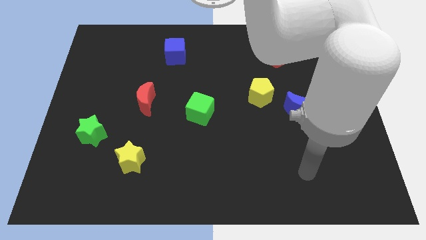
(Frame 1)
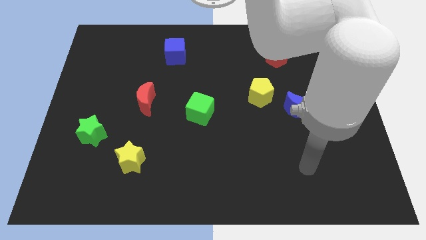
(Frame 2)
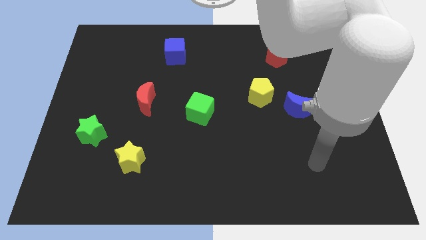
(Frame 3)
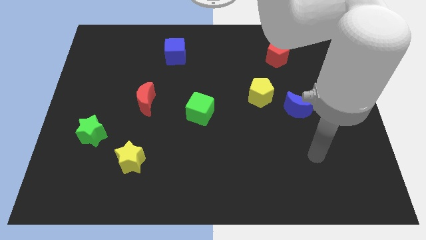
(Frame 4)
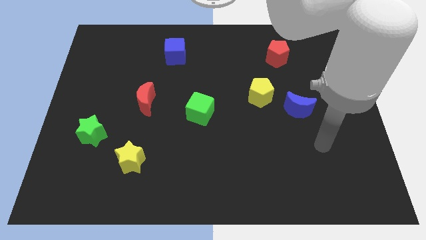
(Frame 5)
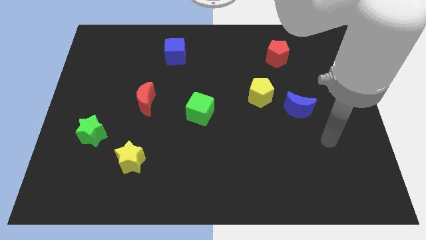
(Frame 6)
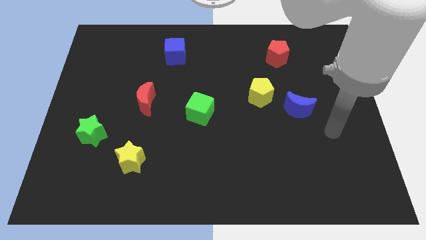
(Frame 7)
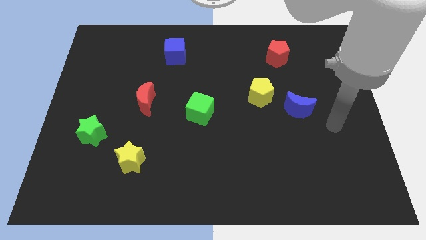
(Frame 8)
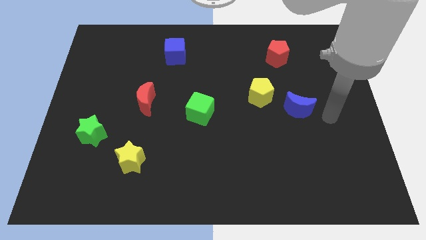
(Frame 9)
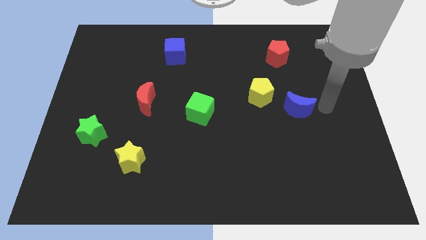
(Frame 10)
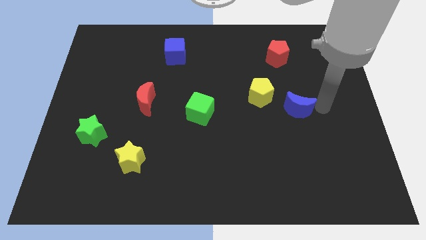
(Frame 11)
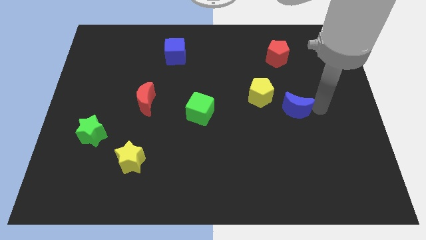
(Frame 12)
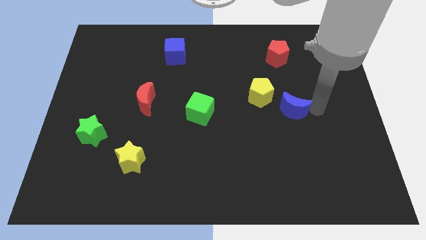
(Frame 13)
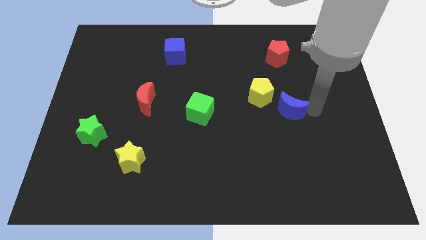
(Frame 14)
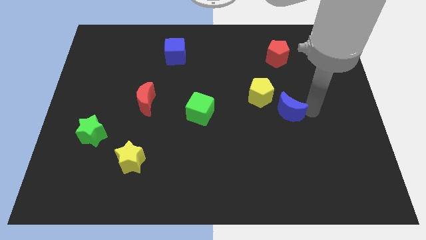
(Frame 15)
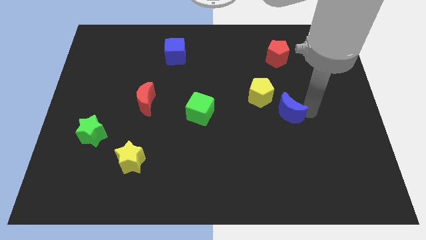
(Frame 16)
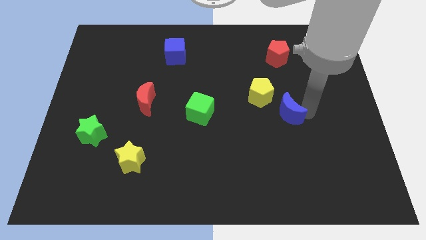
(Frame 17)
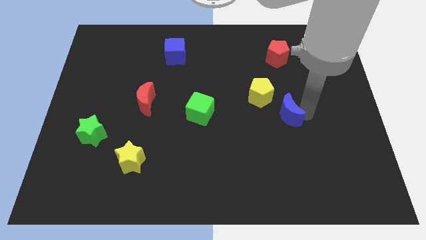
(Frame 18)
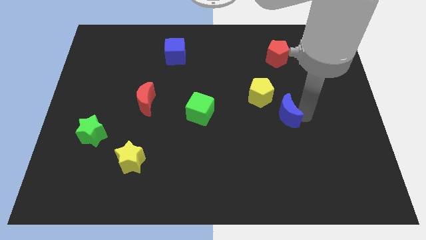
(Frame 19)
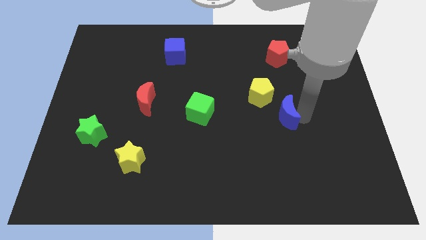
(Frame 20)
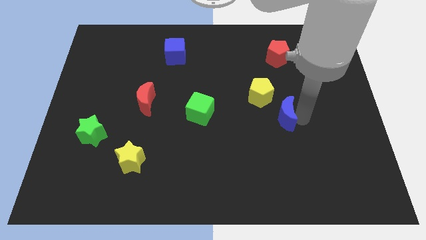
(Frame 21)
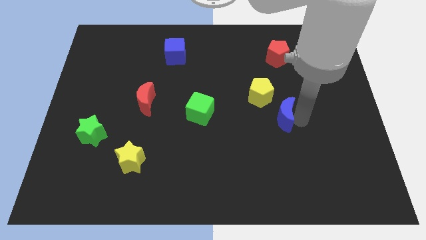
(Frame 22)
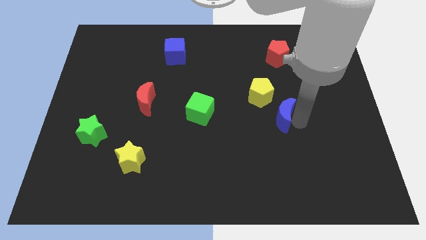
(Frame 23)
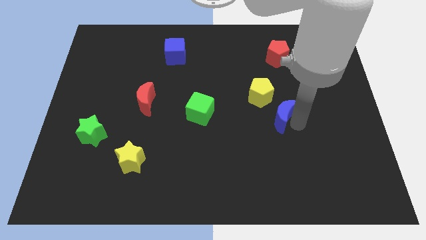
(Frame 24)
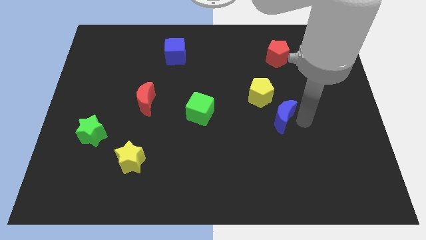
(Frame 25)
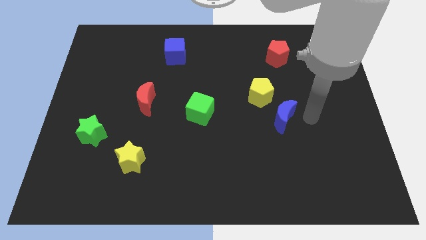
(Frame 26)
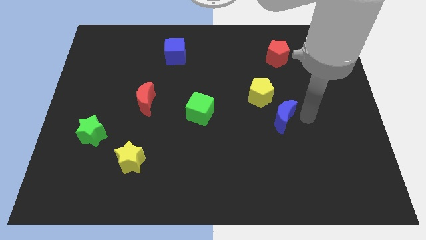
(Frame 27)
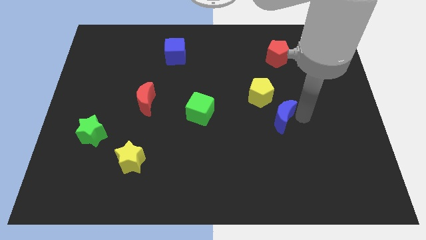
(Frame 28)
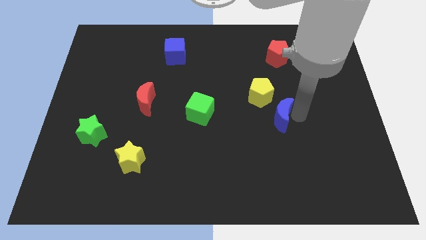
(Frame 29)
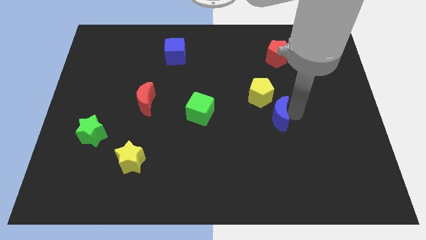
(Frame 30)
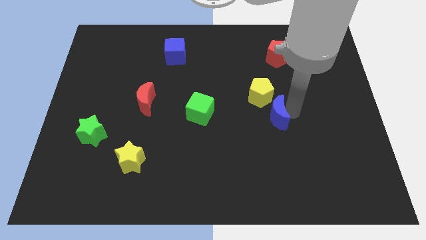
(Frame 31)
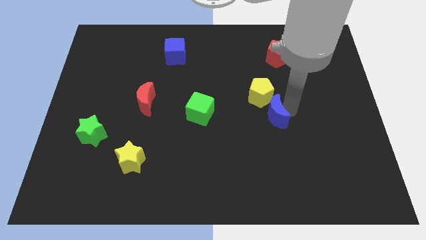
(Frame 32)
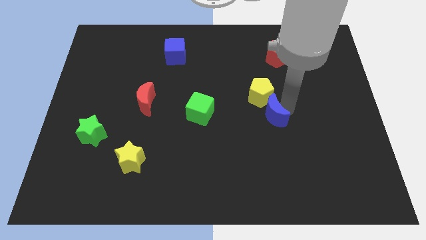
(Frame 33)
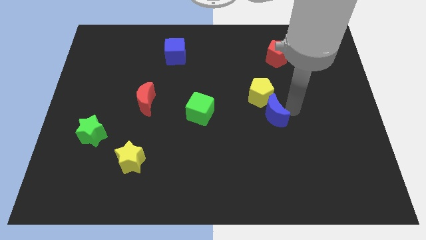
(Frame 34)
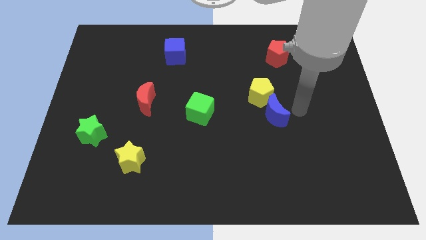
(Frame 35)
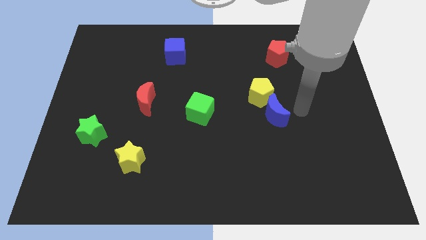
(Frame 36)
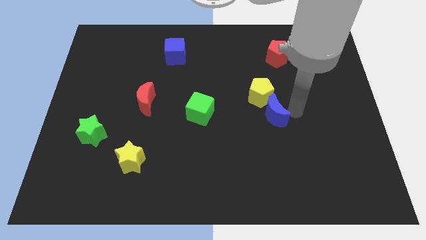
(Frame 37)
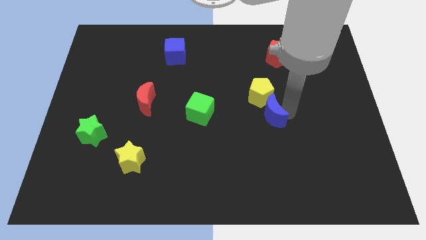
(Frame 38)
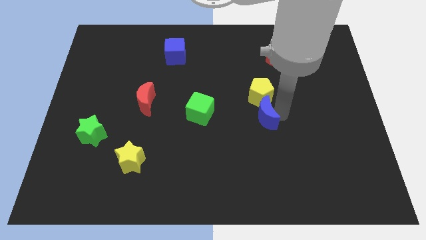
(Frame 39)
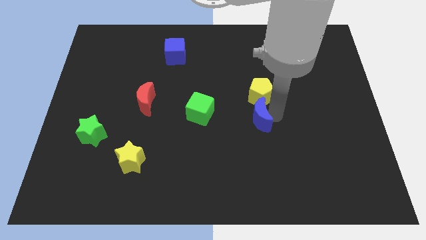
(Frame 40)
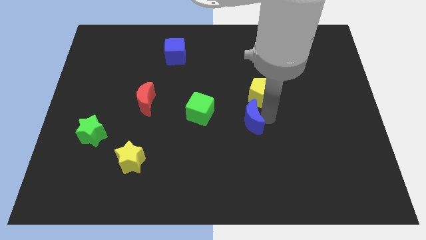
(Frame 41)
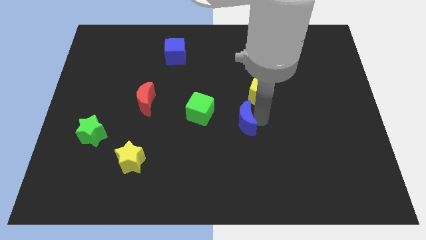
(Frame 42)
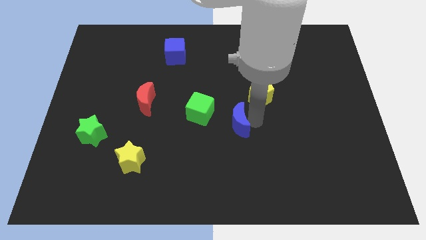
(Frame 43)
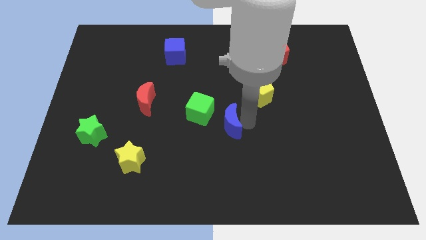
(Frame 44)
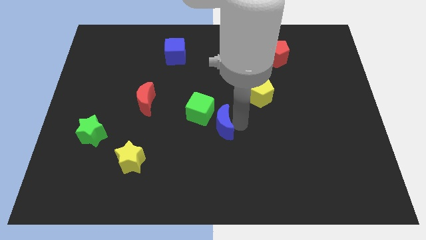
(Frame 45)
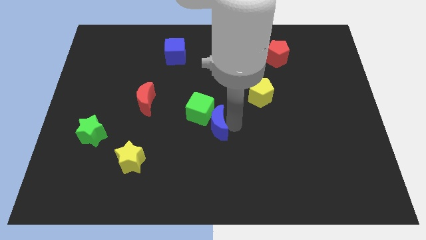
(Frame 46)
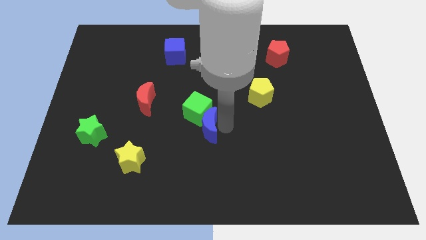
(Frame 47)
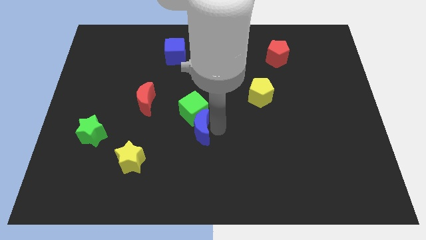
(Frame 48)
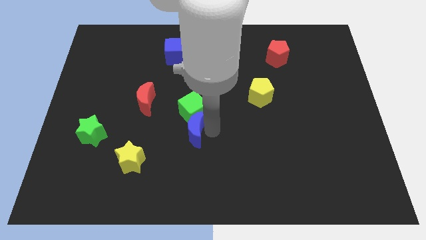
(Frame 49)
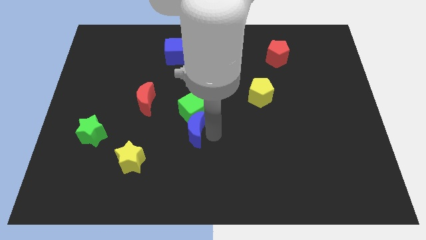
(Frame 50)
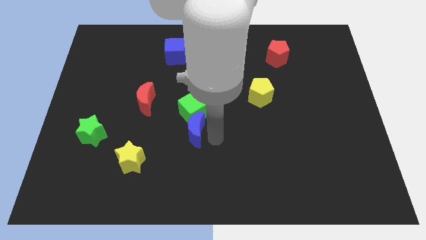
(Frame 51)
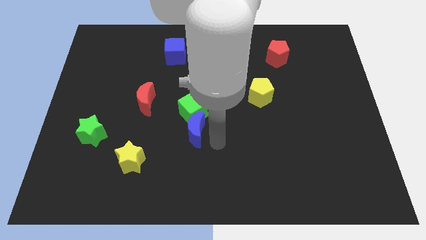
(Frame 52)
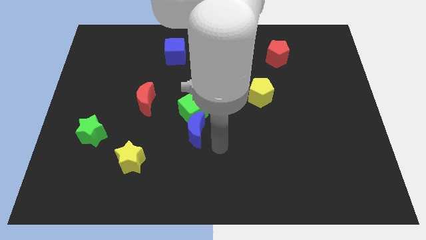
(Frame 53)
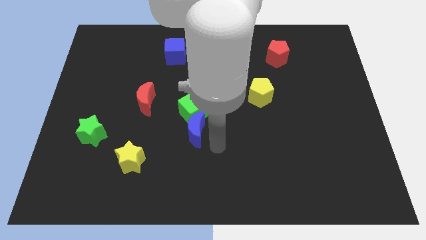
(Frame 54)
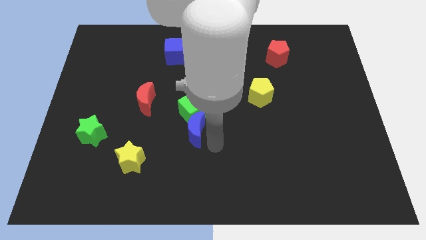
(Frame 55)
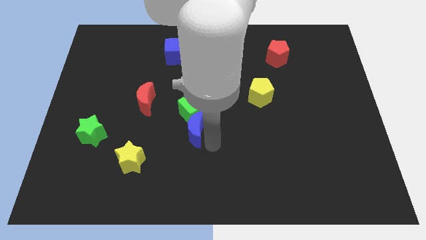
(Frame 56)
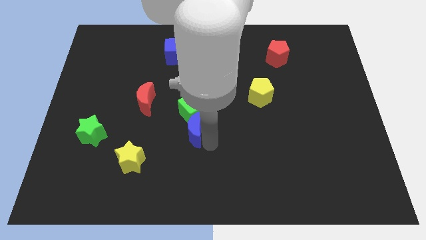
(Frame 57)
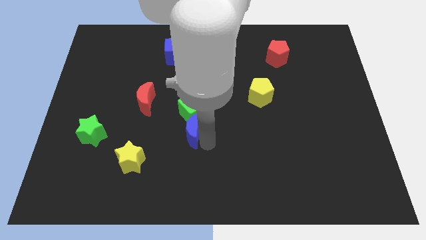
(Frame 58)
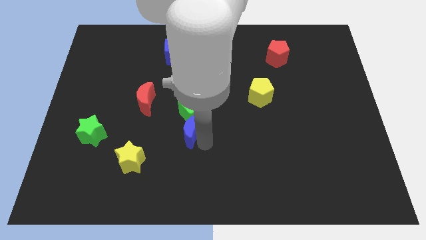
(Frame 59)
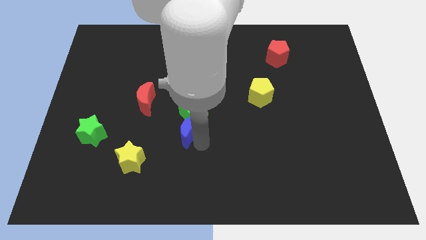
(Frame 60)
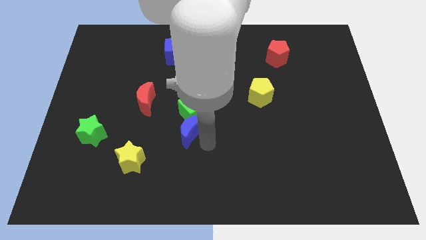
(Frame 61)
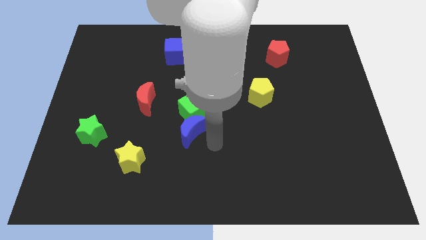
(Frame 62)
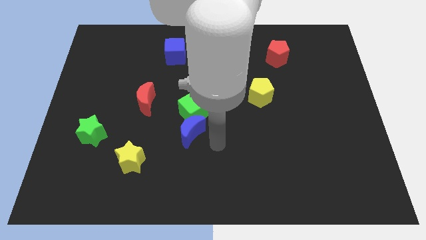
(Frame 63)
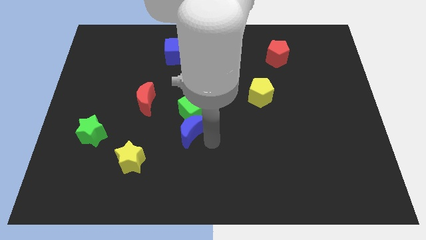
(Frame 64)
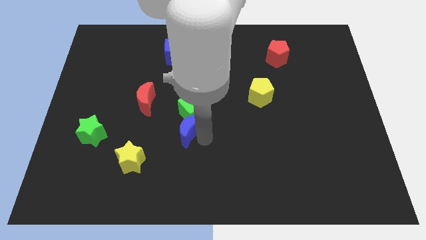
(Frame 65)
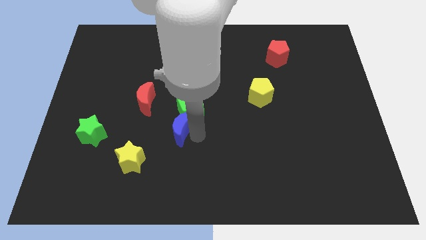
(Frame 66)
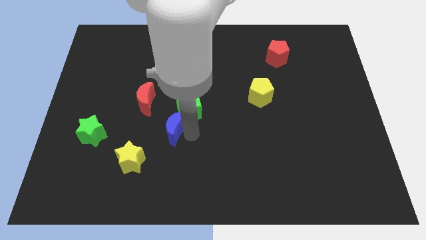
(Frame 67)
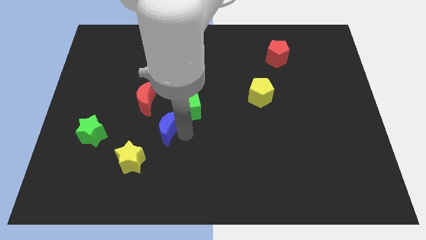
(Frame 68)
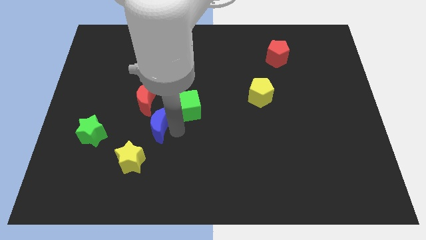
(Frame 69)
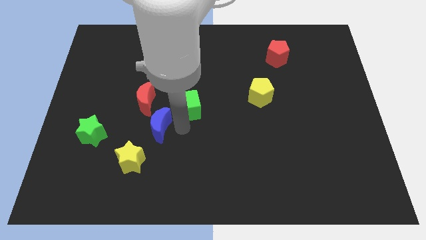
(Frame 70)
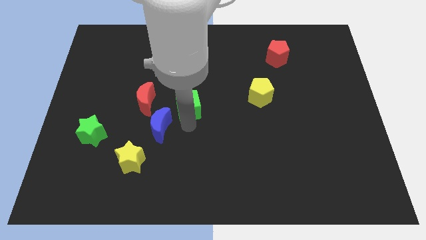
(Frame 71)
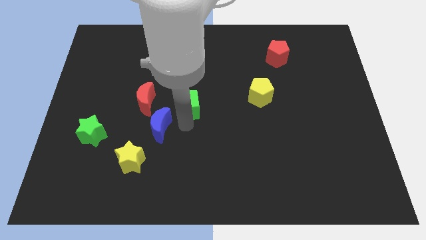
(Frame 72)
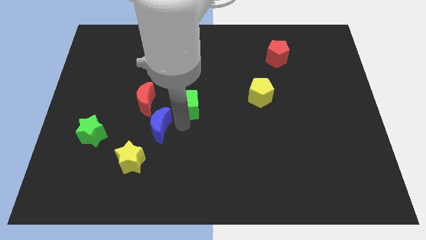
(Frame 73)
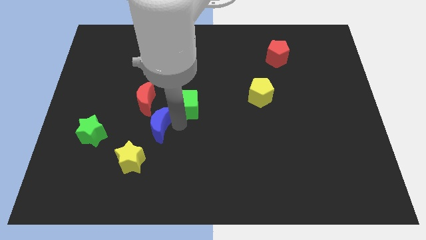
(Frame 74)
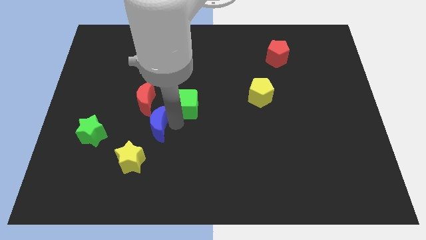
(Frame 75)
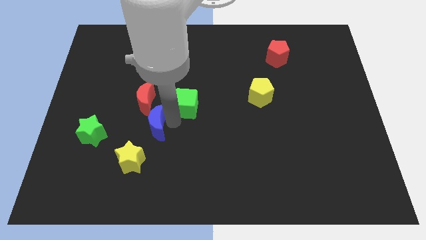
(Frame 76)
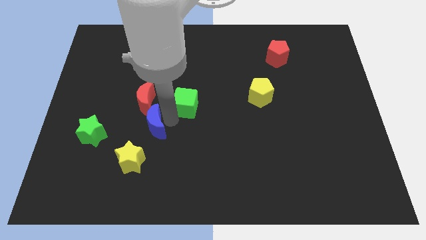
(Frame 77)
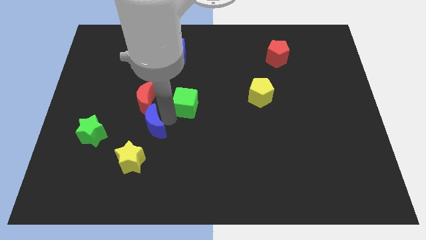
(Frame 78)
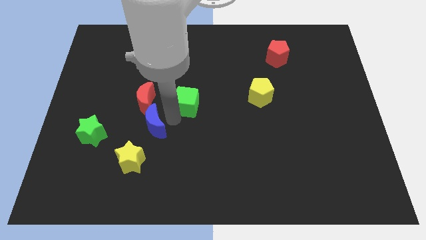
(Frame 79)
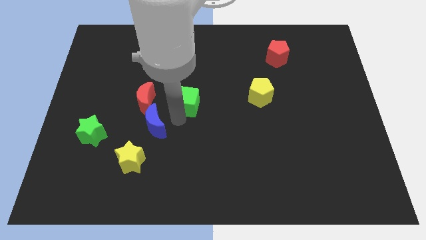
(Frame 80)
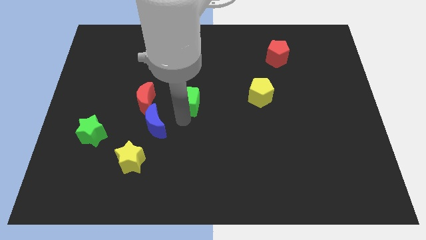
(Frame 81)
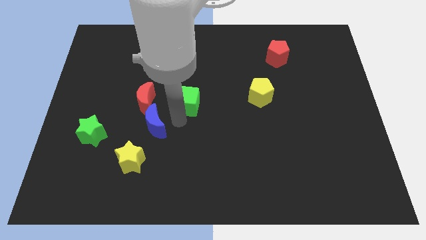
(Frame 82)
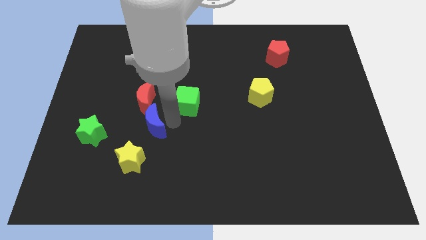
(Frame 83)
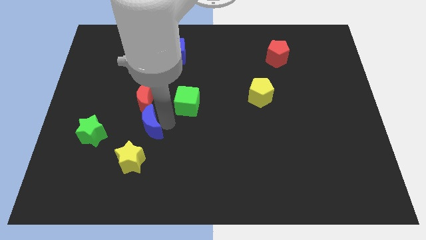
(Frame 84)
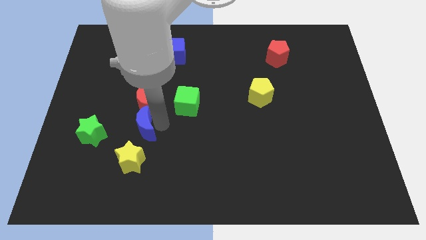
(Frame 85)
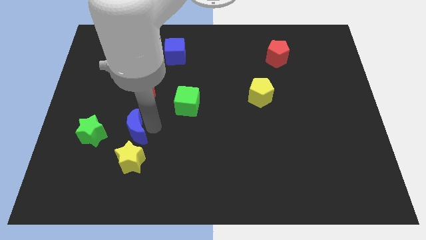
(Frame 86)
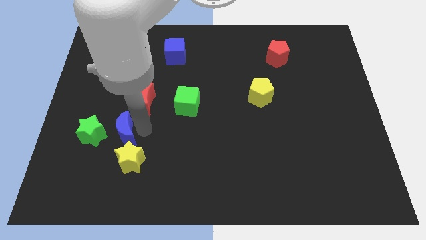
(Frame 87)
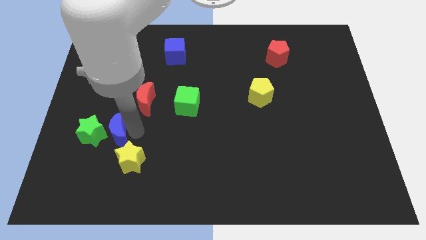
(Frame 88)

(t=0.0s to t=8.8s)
put the blue moon next to the green star
